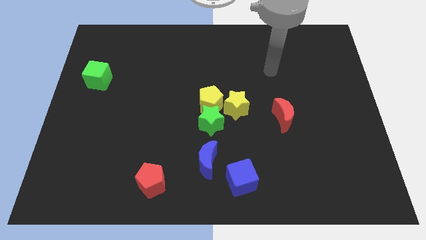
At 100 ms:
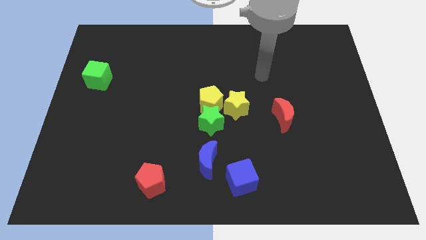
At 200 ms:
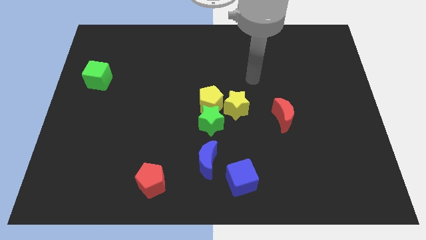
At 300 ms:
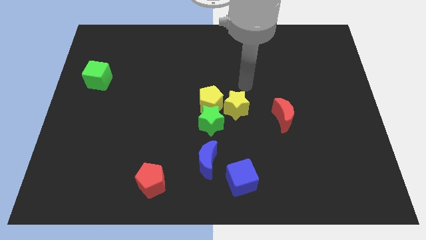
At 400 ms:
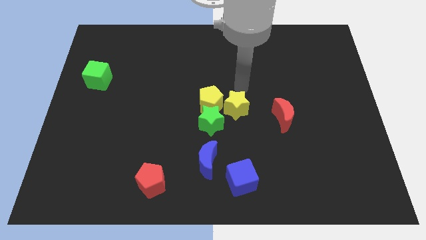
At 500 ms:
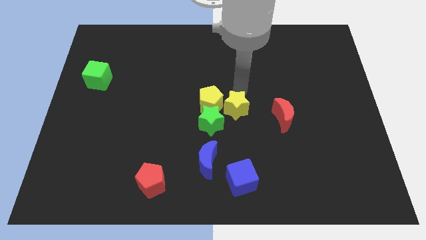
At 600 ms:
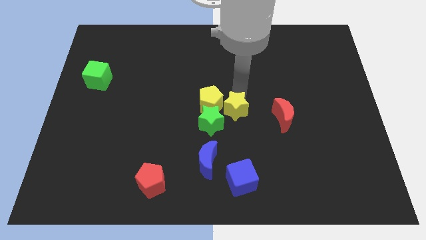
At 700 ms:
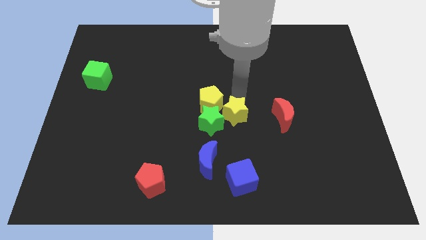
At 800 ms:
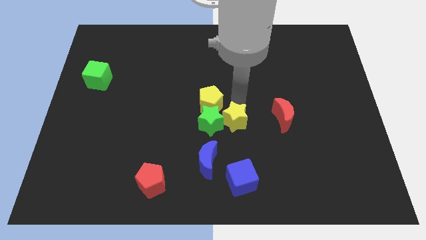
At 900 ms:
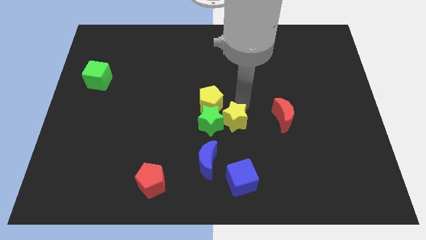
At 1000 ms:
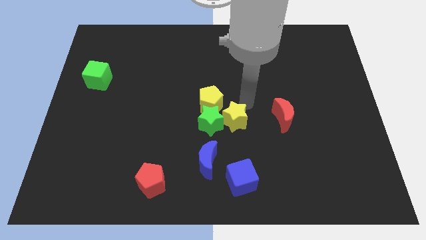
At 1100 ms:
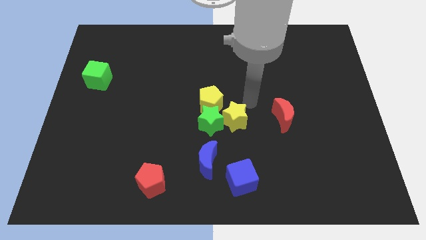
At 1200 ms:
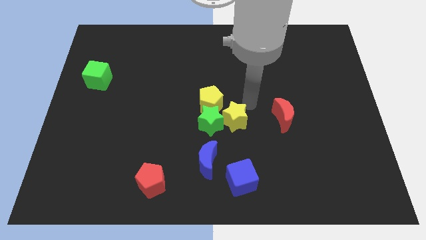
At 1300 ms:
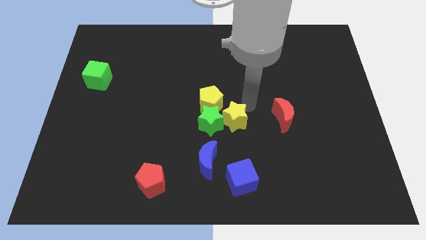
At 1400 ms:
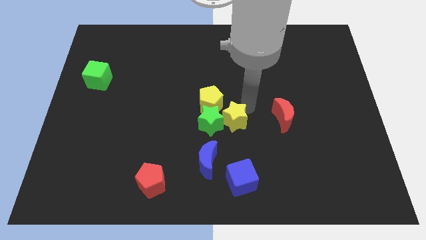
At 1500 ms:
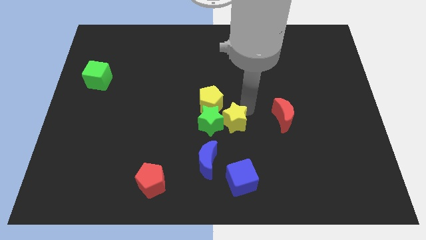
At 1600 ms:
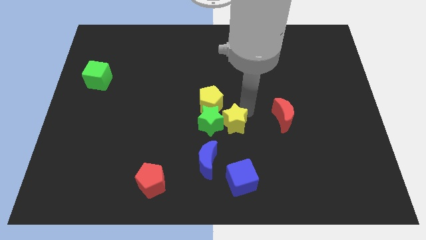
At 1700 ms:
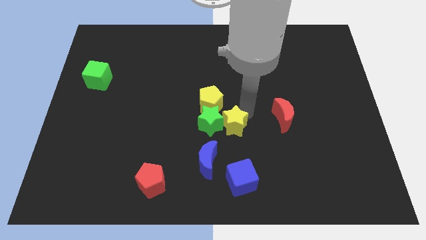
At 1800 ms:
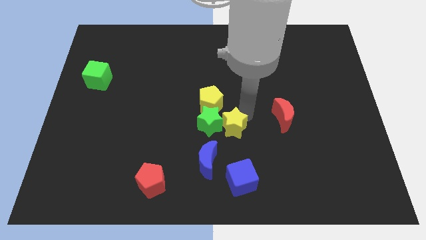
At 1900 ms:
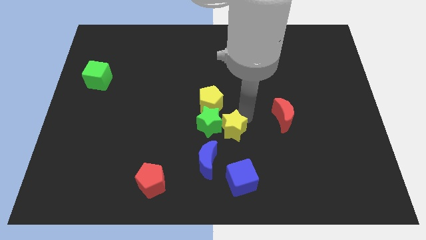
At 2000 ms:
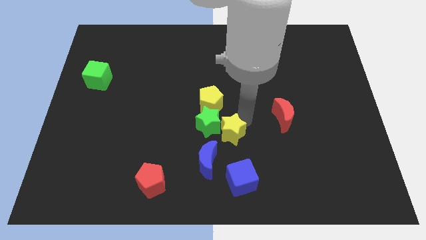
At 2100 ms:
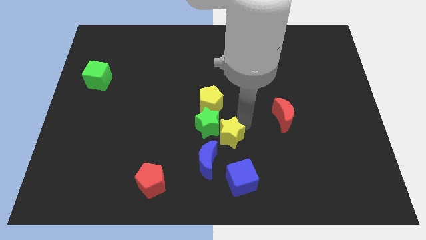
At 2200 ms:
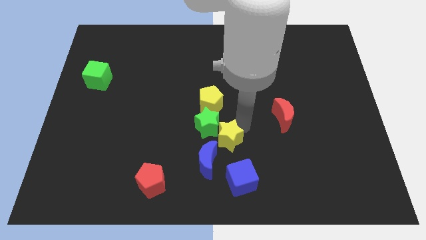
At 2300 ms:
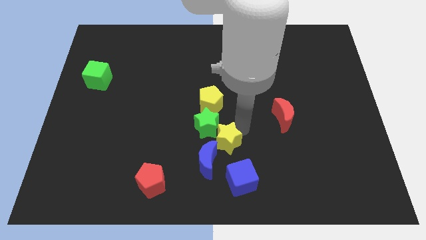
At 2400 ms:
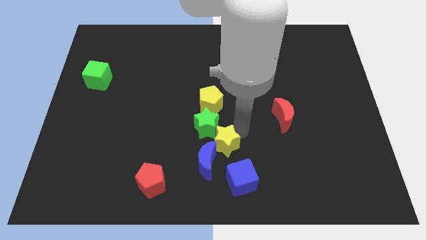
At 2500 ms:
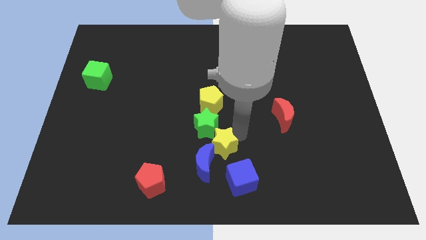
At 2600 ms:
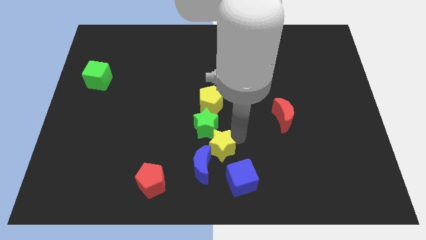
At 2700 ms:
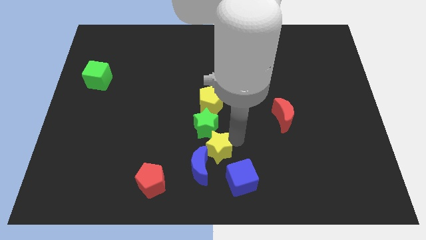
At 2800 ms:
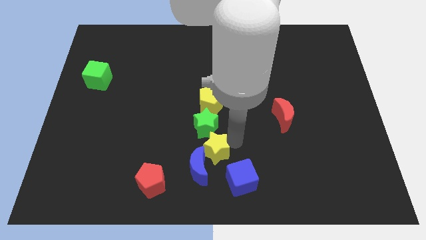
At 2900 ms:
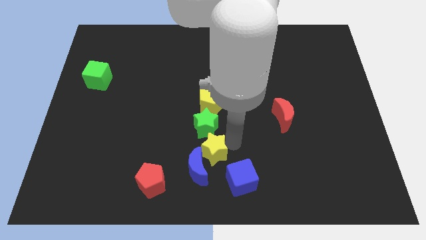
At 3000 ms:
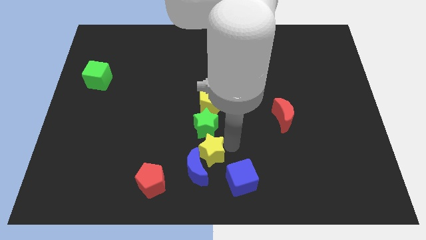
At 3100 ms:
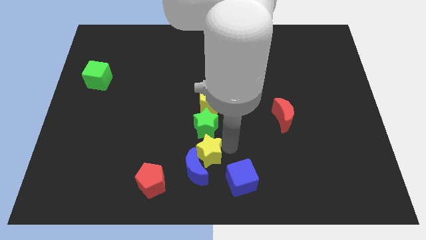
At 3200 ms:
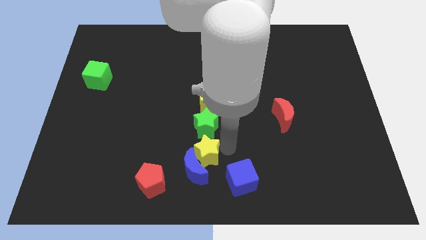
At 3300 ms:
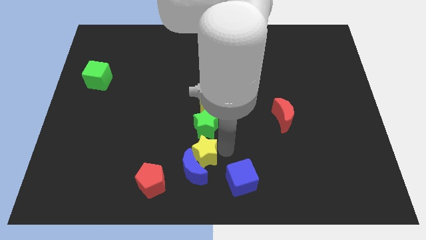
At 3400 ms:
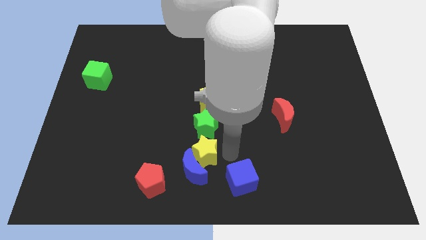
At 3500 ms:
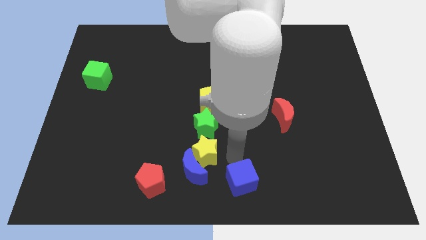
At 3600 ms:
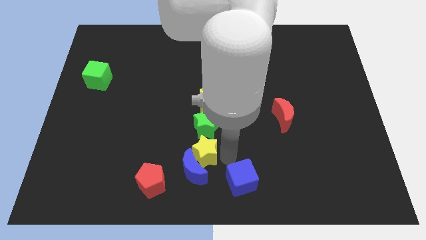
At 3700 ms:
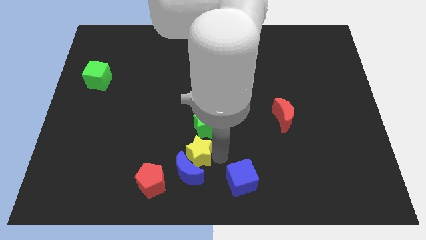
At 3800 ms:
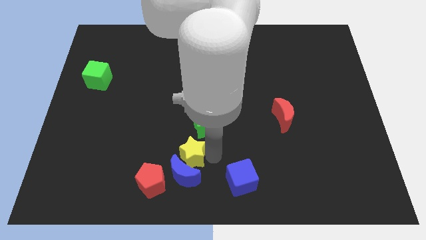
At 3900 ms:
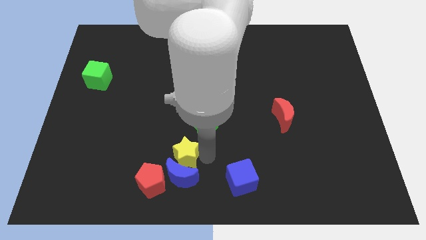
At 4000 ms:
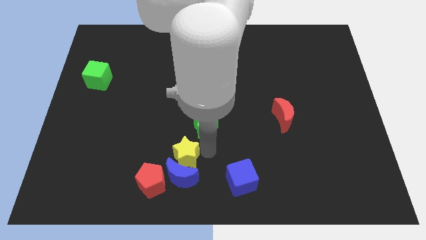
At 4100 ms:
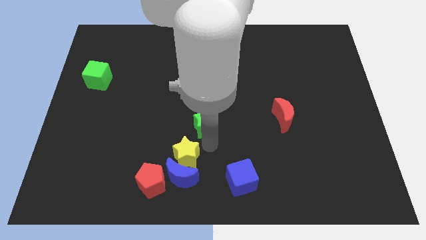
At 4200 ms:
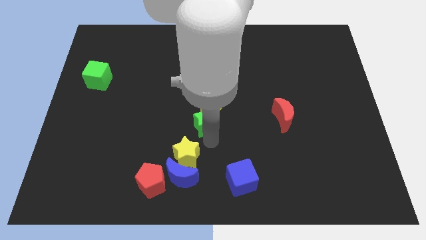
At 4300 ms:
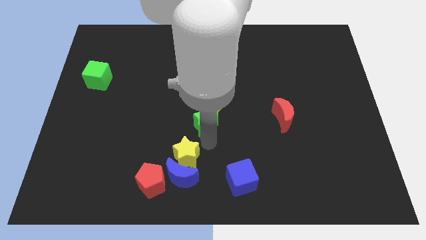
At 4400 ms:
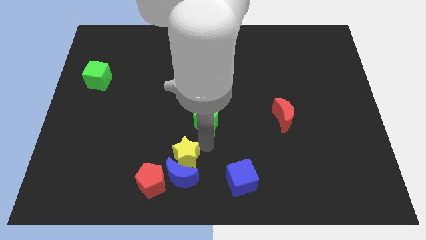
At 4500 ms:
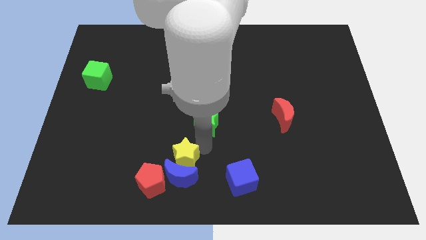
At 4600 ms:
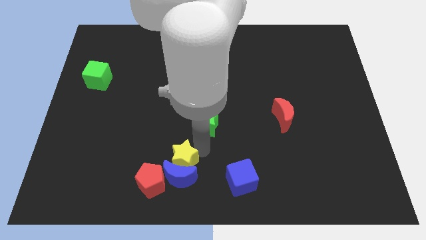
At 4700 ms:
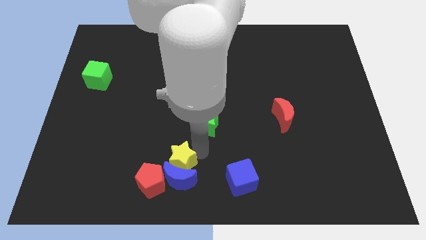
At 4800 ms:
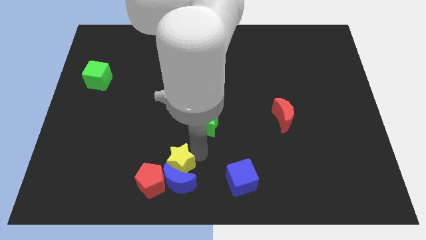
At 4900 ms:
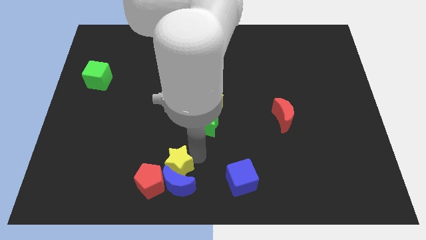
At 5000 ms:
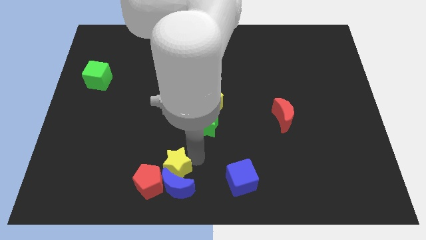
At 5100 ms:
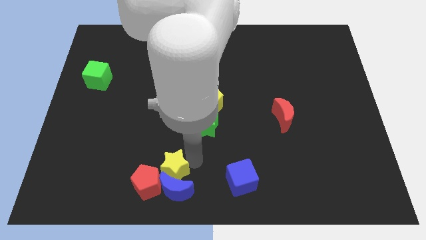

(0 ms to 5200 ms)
slide the yellow star close to the red pentagon

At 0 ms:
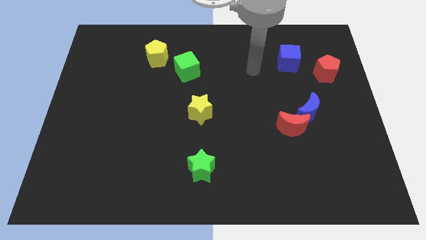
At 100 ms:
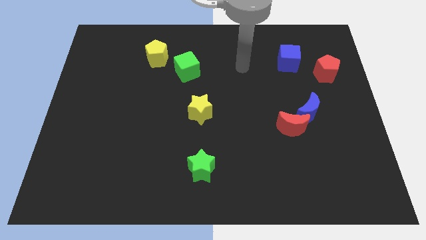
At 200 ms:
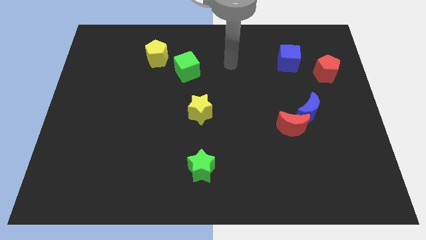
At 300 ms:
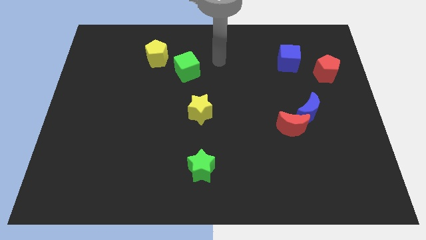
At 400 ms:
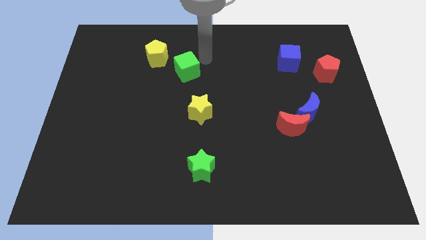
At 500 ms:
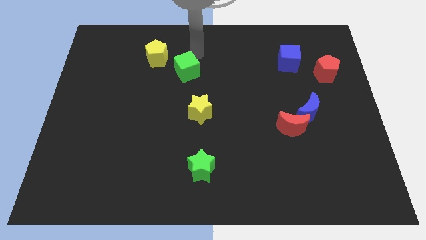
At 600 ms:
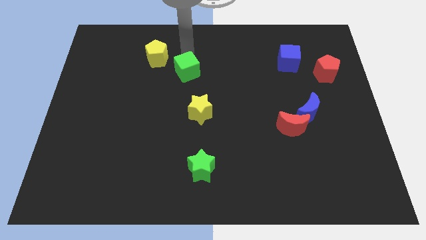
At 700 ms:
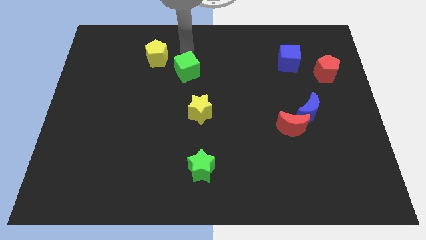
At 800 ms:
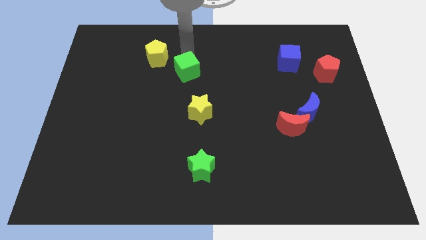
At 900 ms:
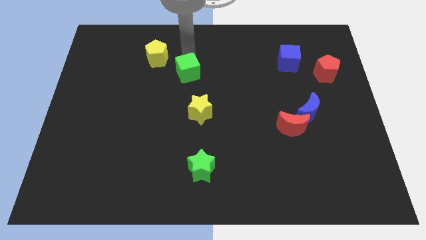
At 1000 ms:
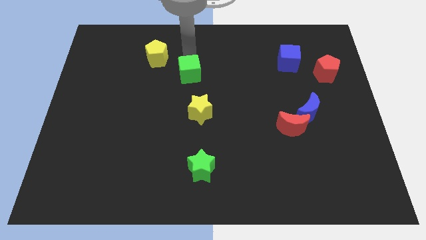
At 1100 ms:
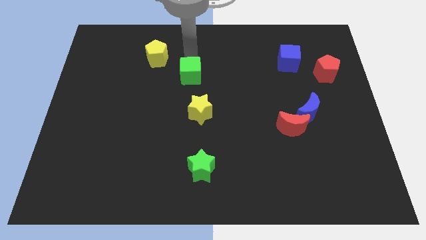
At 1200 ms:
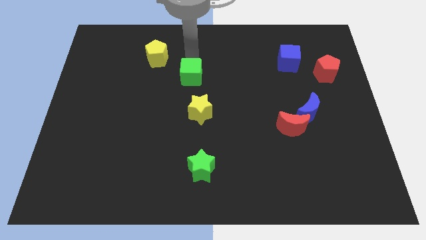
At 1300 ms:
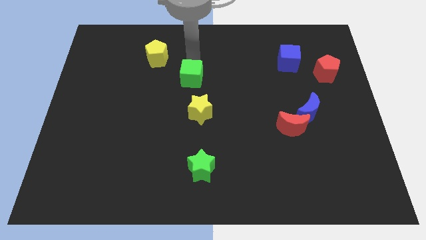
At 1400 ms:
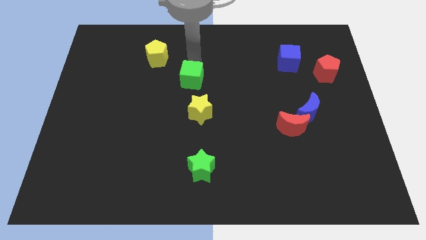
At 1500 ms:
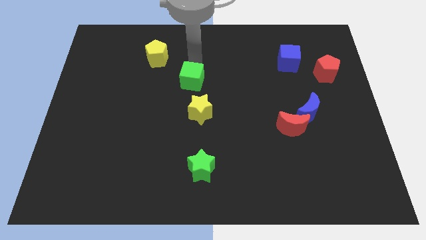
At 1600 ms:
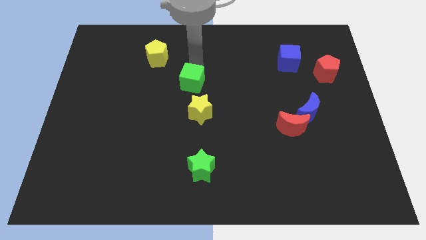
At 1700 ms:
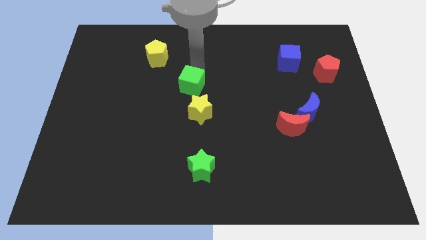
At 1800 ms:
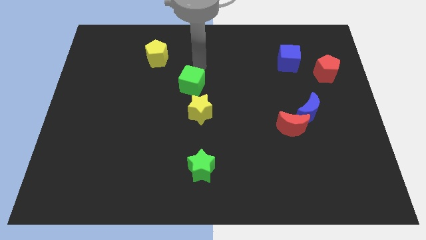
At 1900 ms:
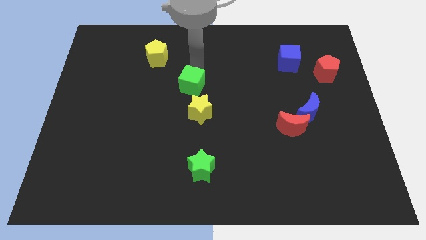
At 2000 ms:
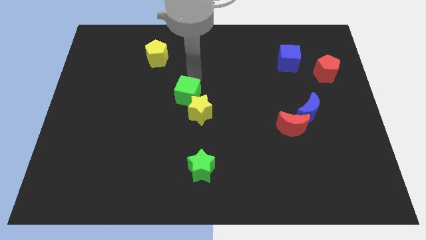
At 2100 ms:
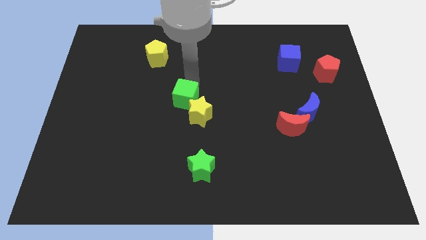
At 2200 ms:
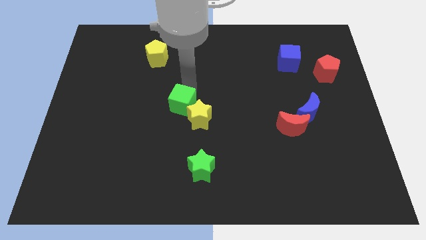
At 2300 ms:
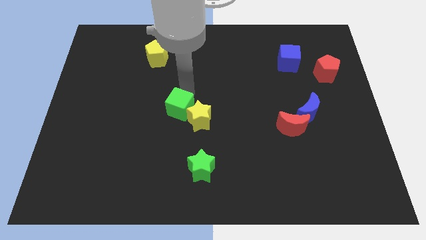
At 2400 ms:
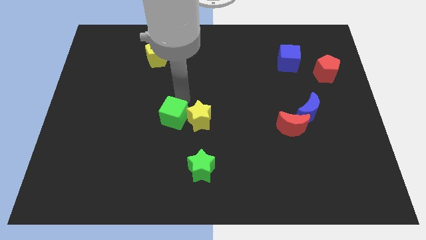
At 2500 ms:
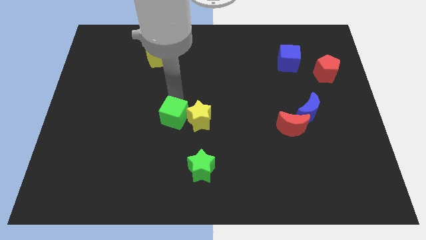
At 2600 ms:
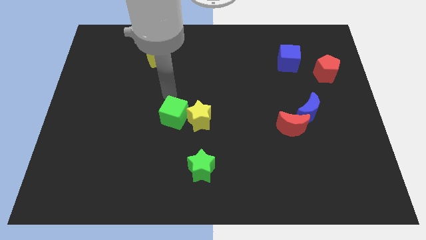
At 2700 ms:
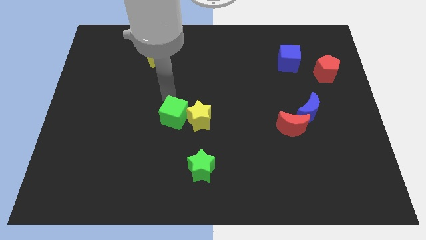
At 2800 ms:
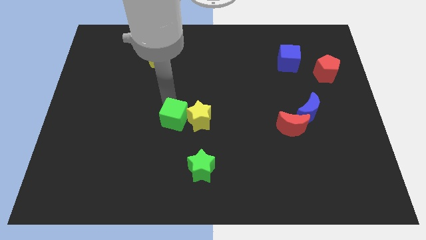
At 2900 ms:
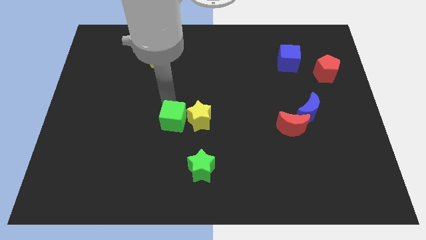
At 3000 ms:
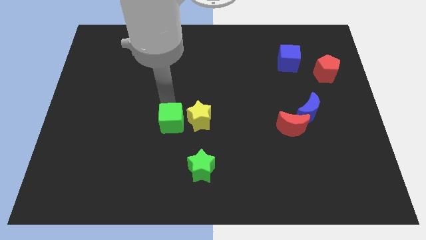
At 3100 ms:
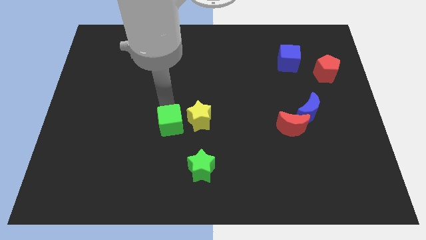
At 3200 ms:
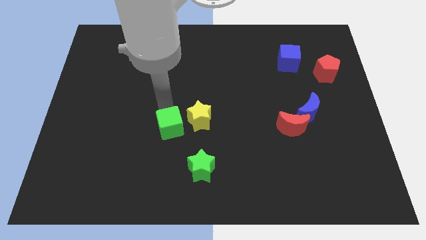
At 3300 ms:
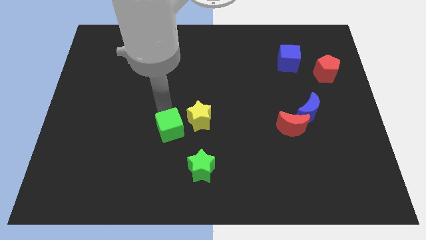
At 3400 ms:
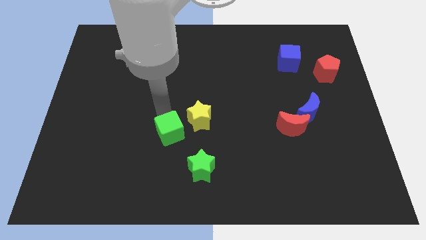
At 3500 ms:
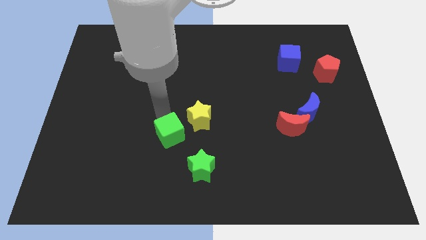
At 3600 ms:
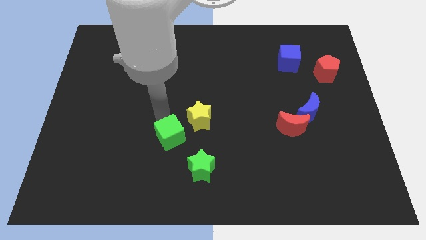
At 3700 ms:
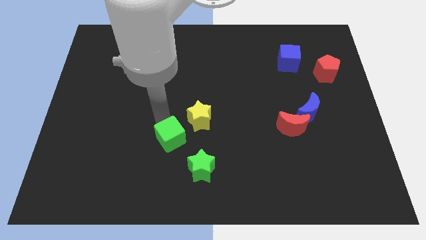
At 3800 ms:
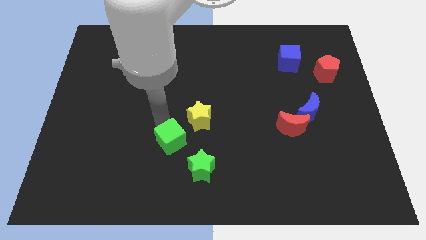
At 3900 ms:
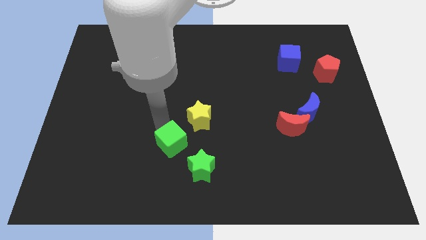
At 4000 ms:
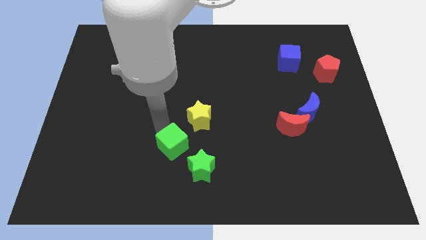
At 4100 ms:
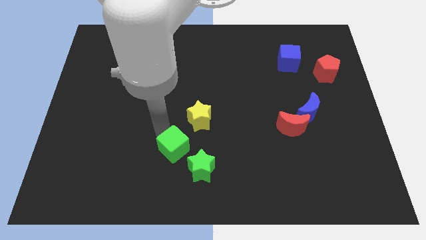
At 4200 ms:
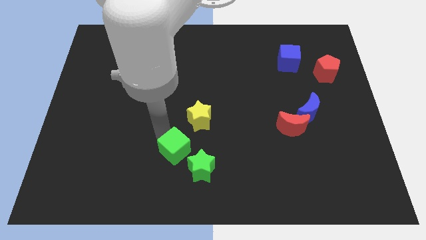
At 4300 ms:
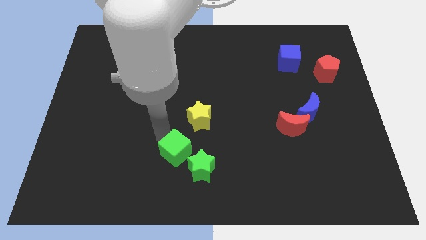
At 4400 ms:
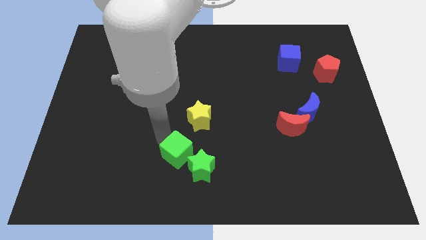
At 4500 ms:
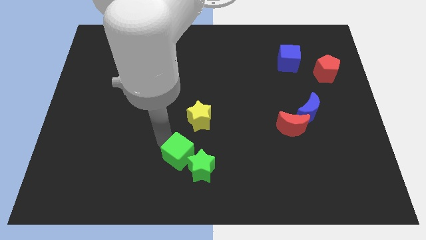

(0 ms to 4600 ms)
put the green cube next to the green star
